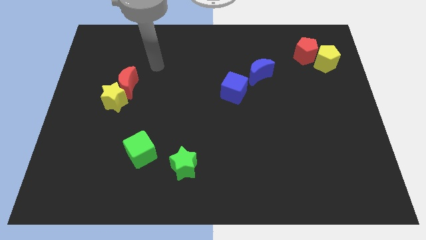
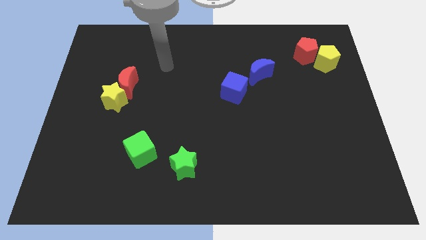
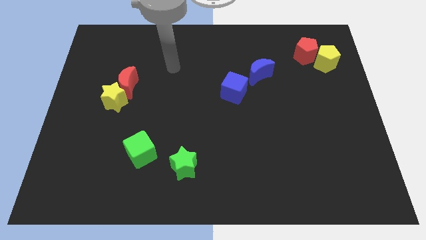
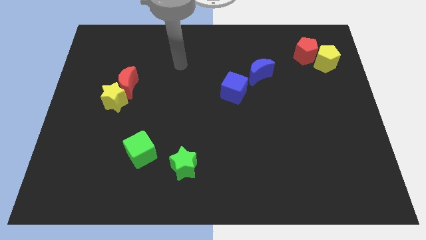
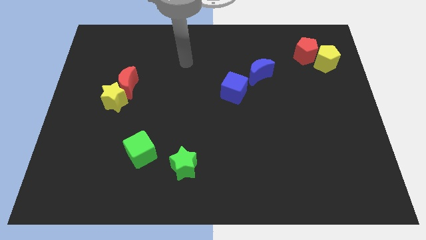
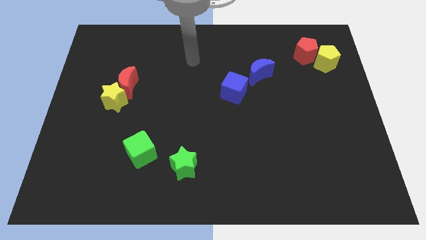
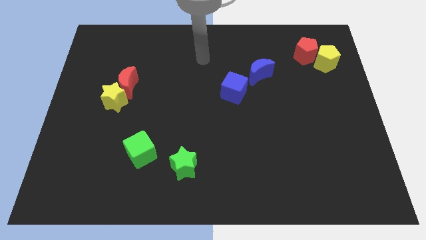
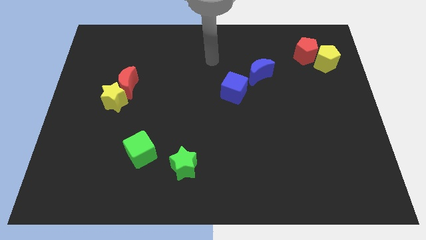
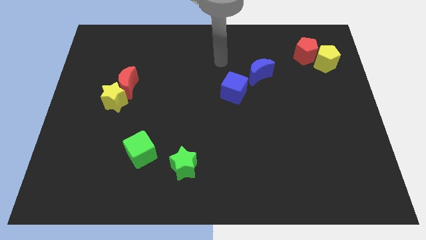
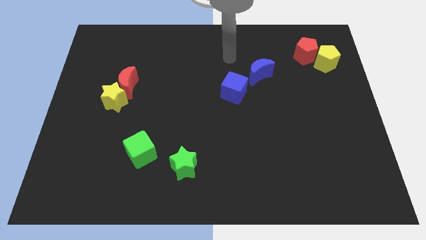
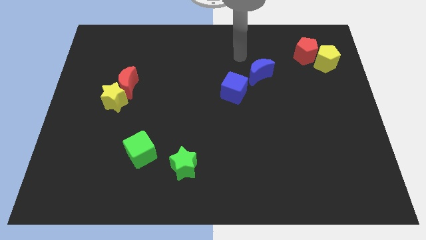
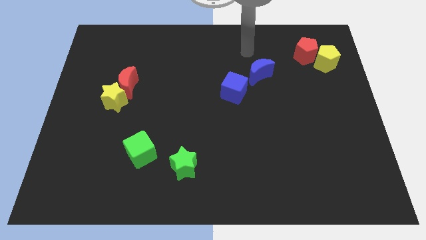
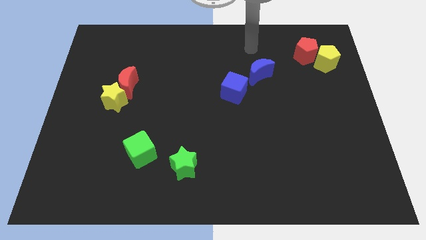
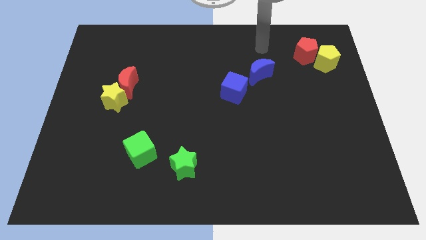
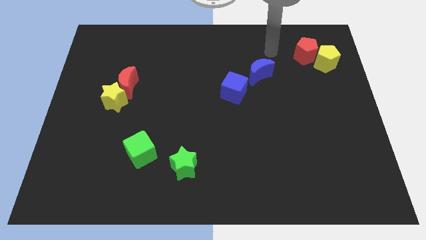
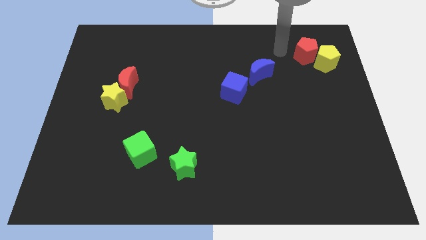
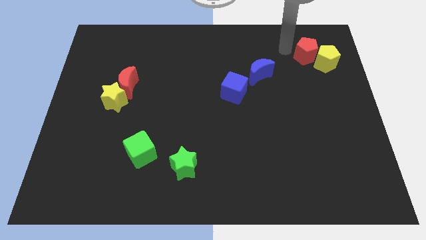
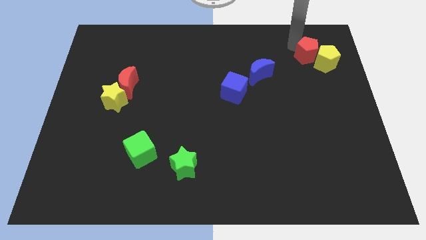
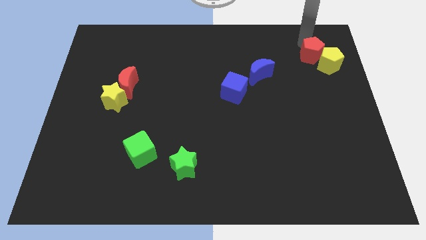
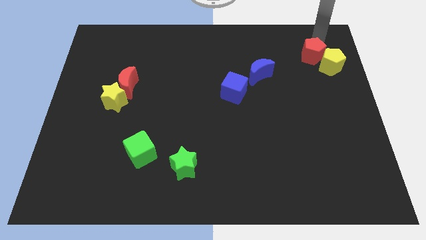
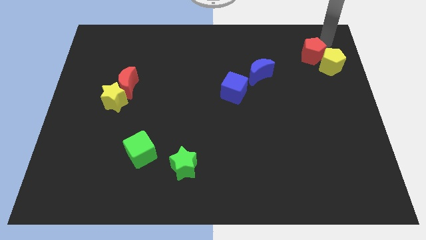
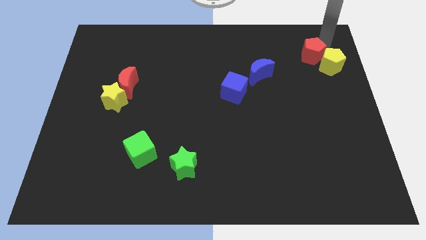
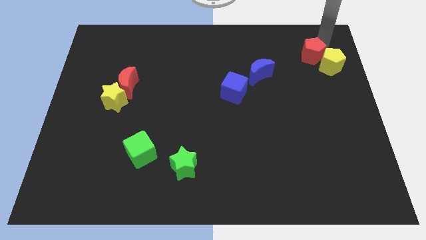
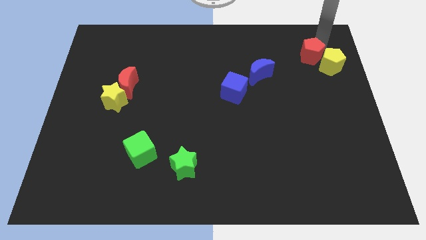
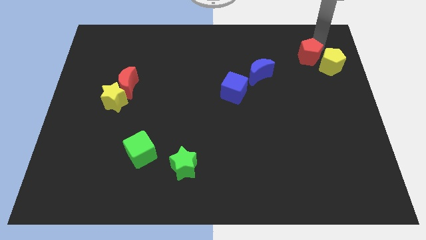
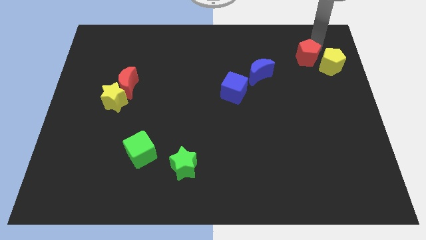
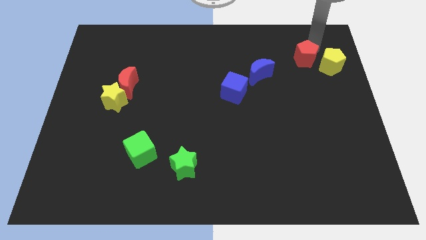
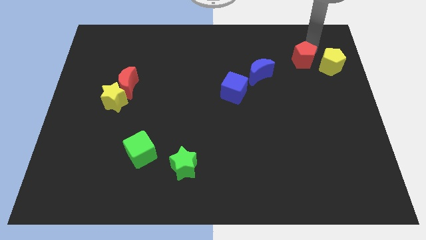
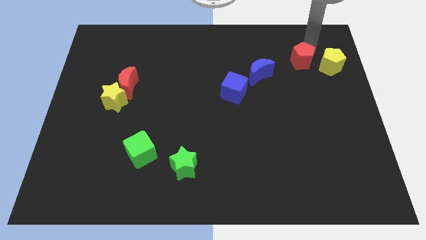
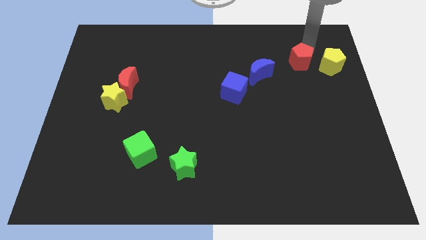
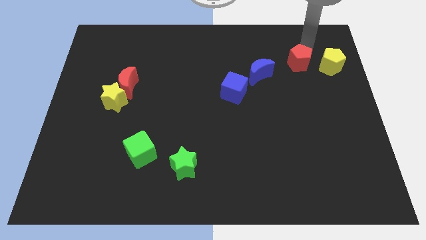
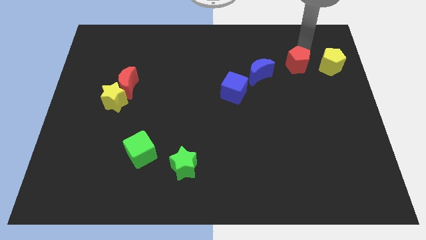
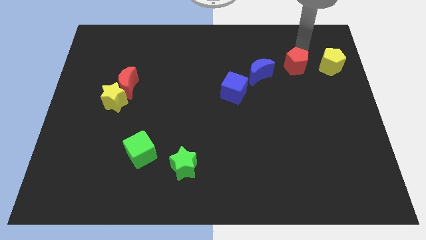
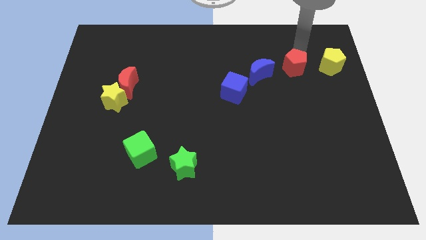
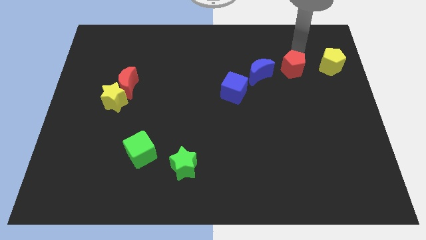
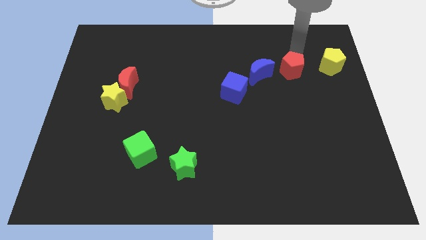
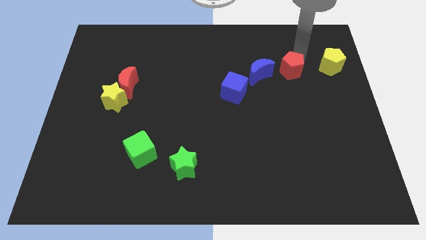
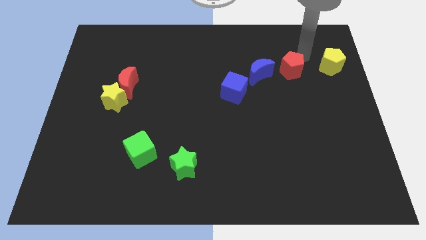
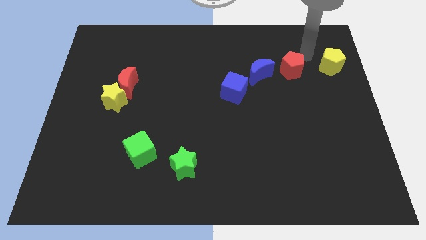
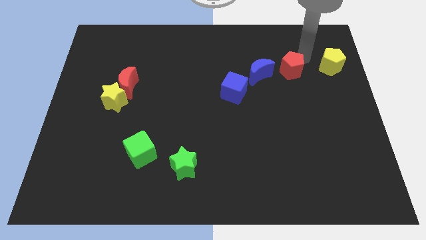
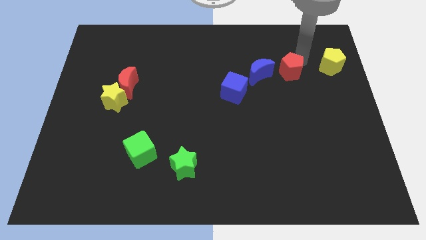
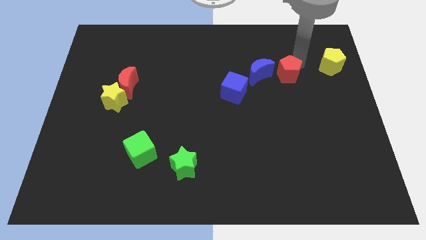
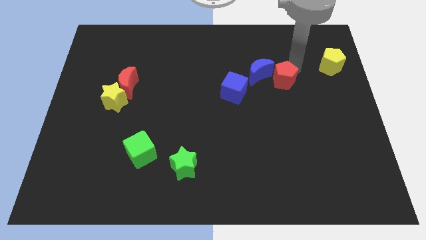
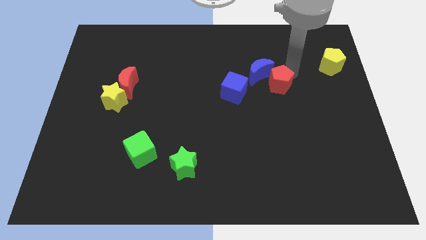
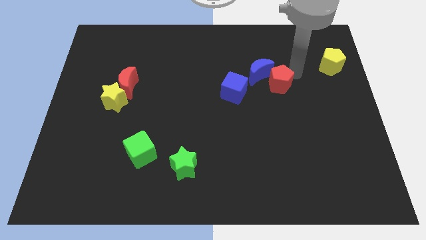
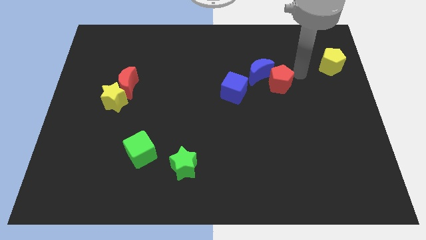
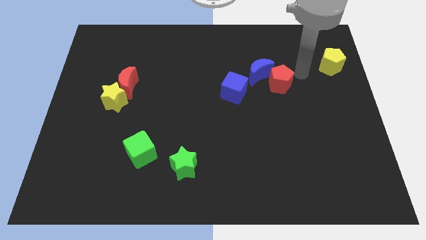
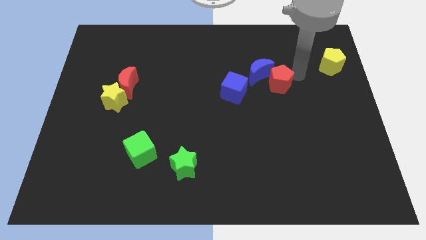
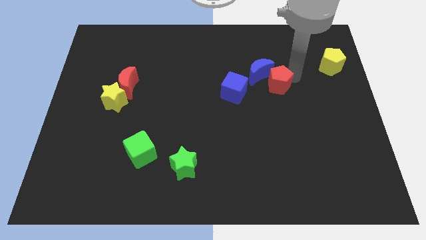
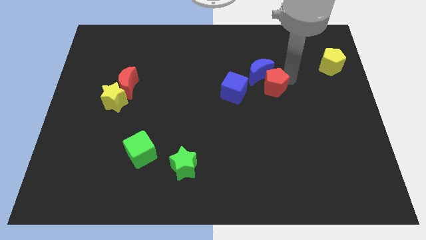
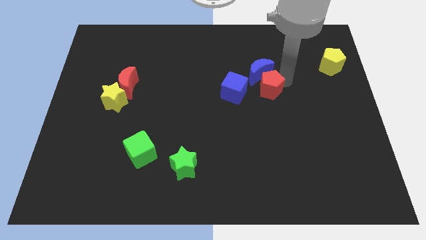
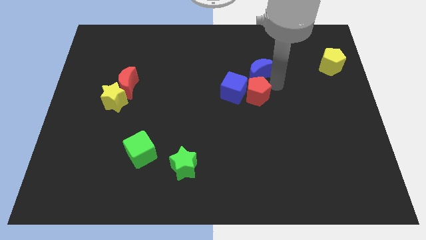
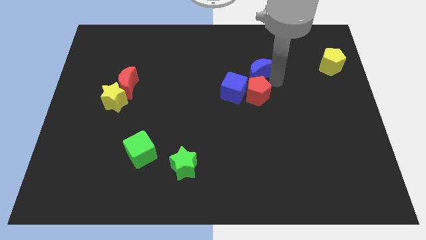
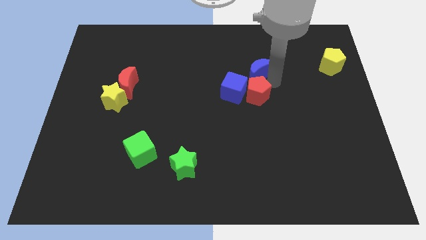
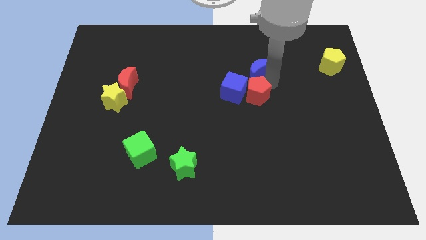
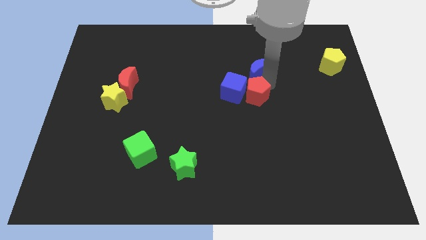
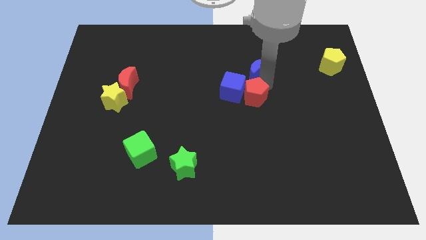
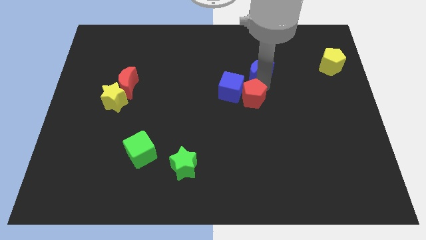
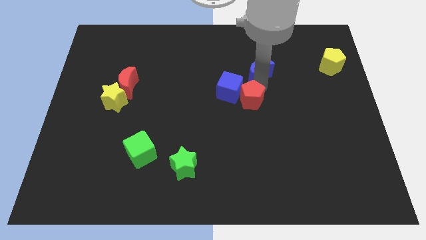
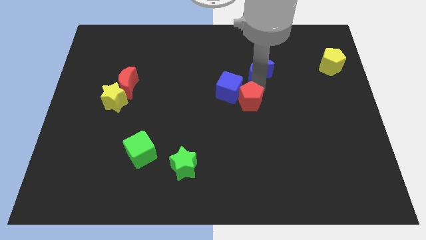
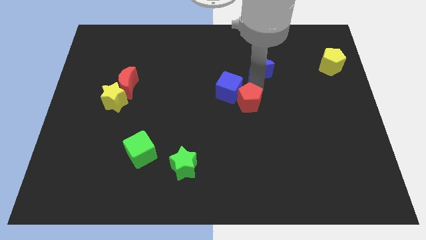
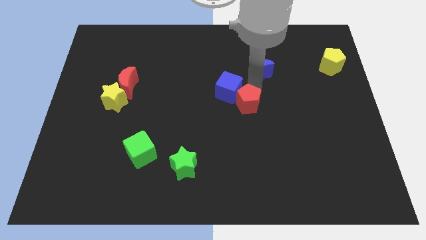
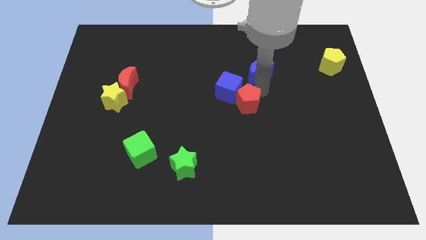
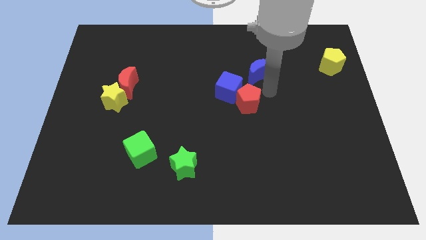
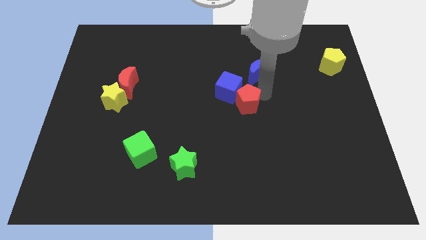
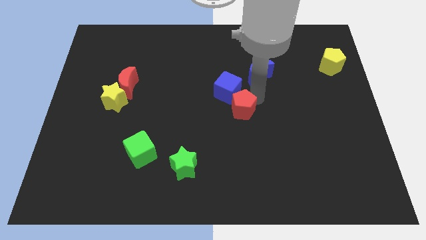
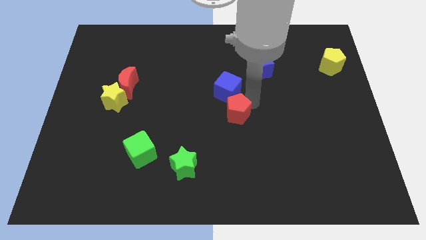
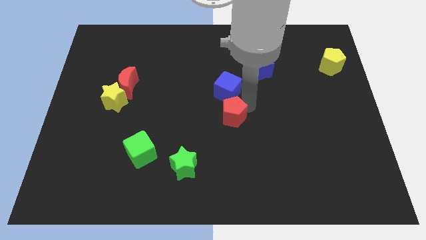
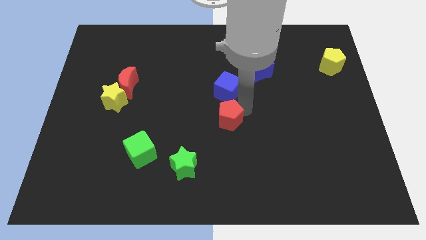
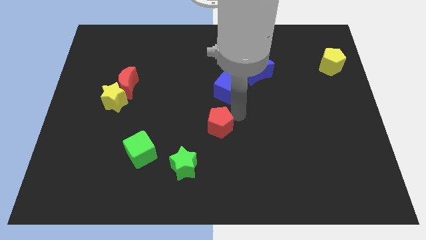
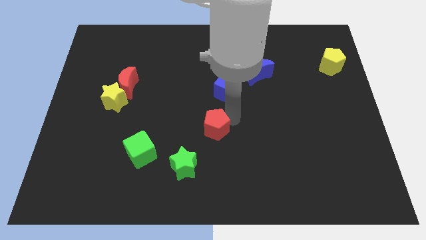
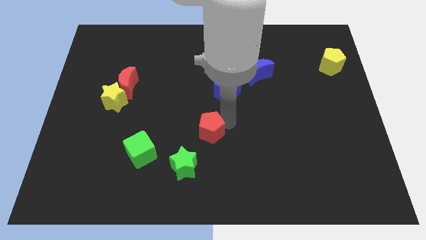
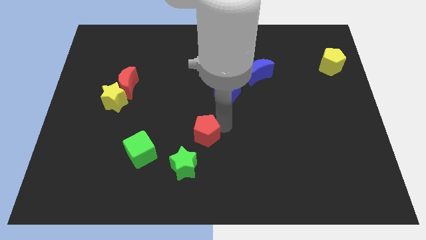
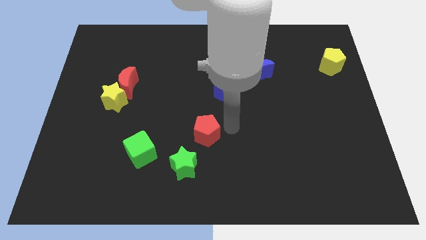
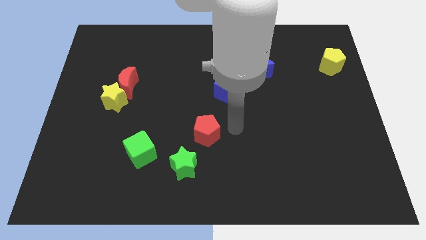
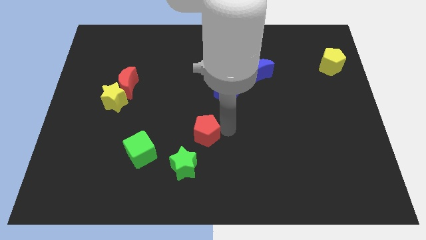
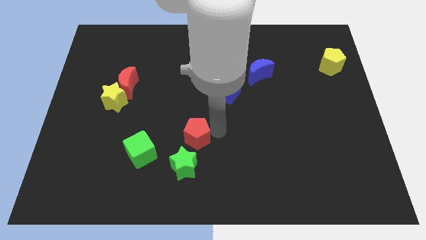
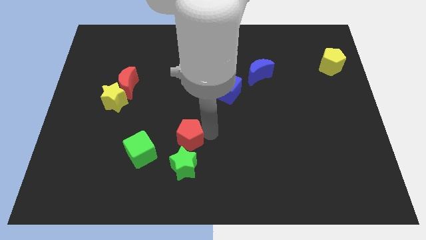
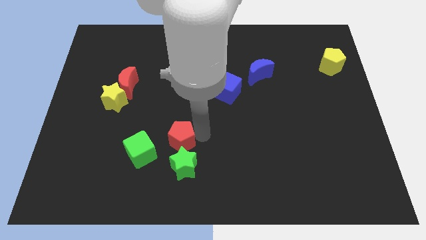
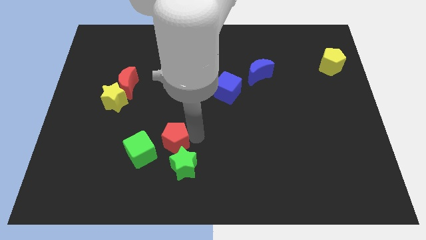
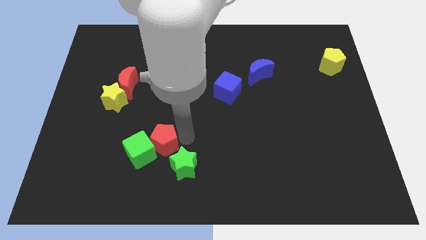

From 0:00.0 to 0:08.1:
put the red pentagon to the green cube
